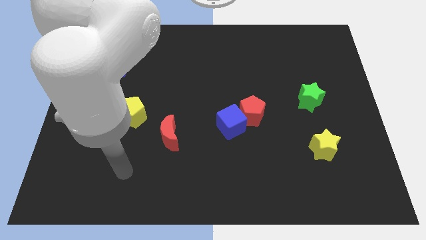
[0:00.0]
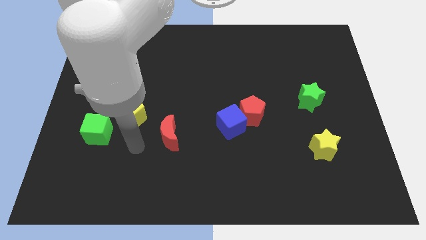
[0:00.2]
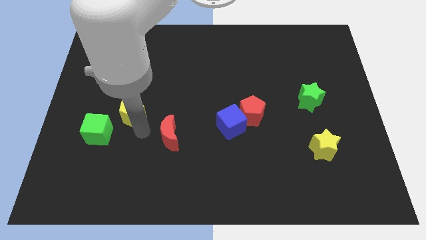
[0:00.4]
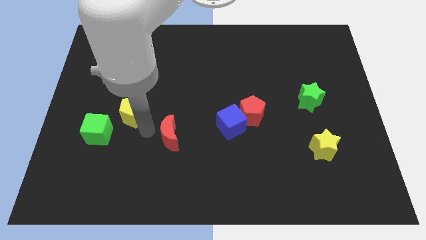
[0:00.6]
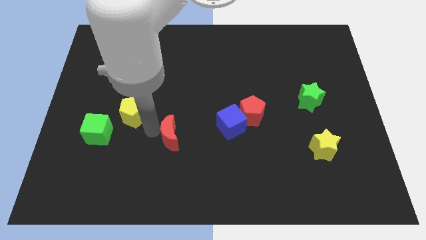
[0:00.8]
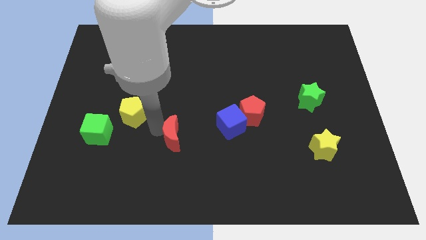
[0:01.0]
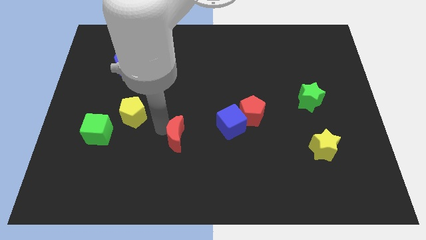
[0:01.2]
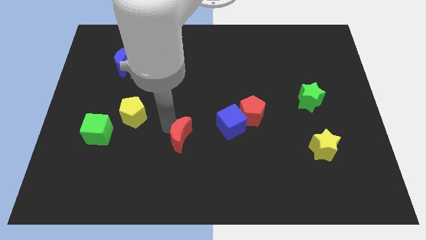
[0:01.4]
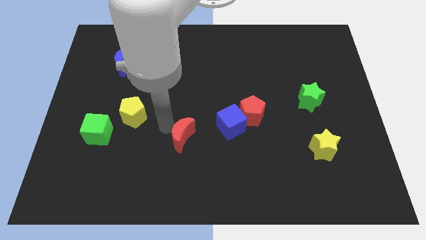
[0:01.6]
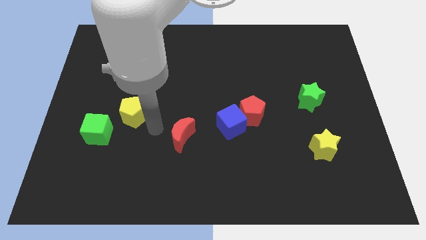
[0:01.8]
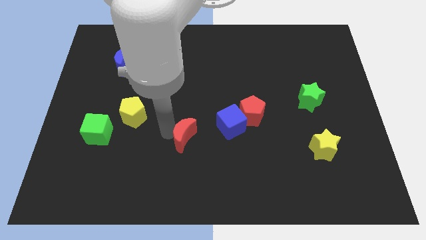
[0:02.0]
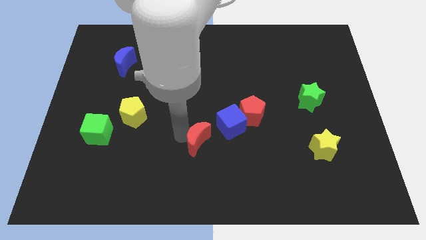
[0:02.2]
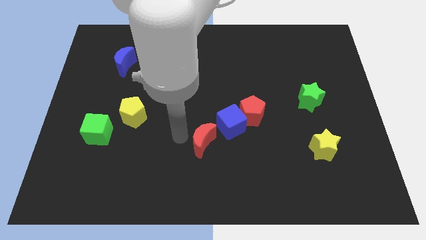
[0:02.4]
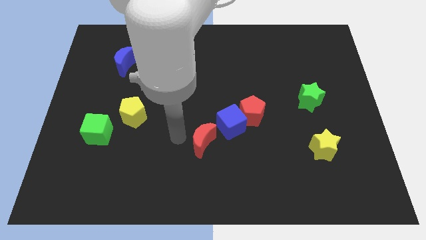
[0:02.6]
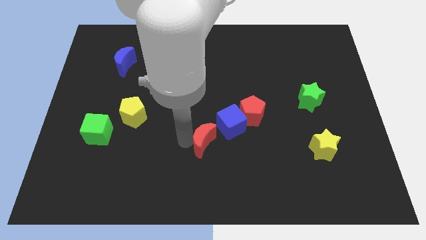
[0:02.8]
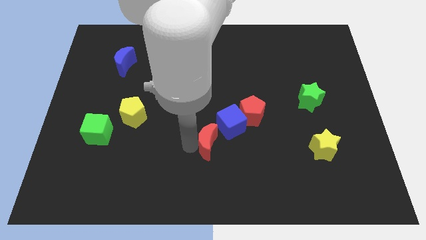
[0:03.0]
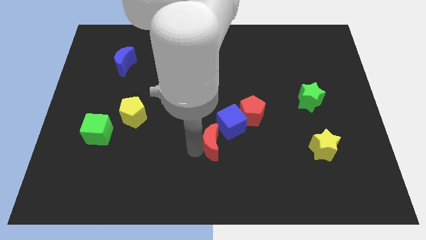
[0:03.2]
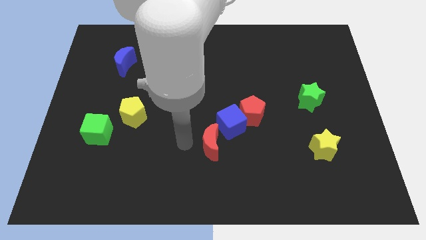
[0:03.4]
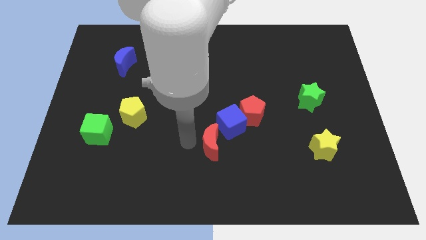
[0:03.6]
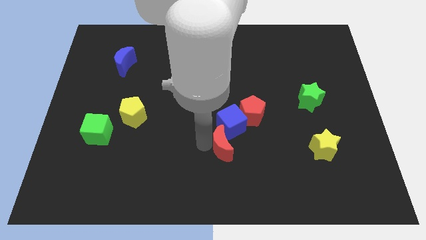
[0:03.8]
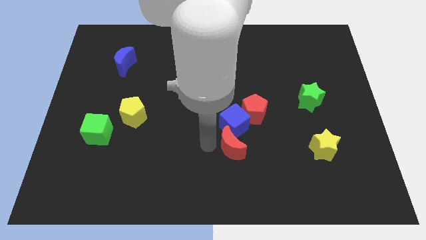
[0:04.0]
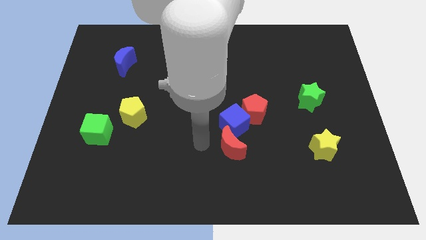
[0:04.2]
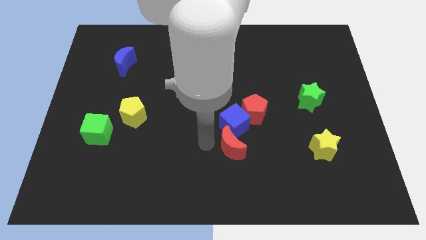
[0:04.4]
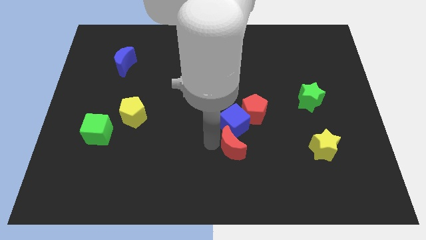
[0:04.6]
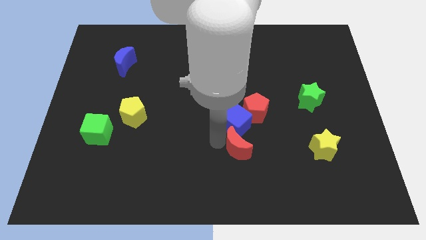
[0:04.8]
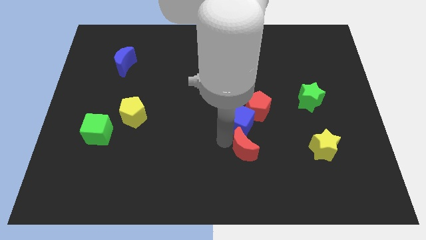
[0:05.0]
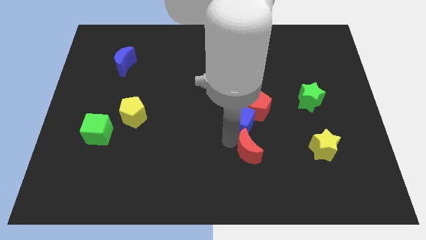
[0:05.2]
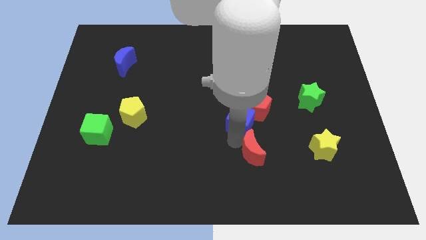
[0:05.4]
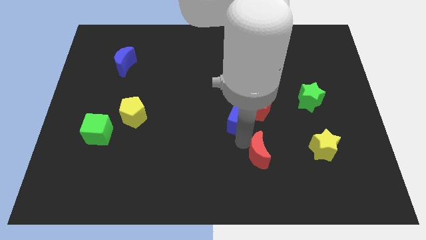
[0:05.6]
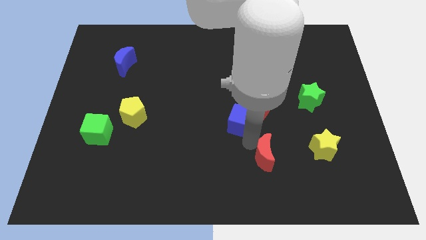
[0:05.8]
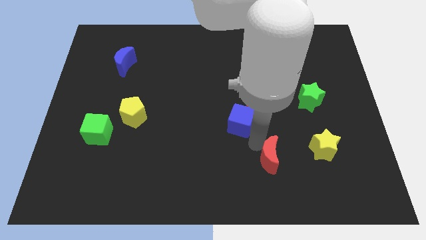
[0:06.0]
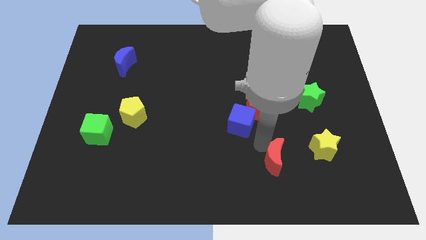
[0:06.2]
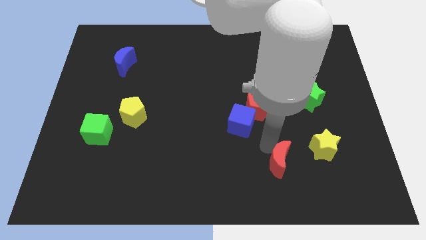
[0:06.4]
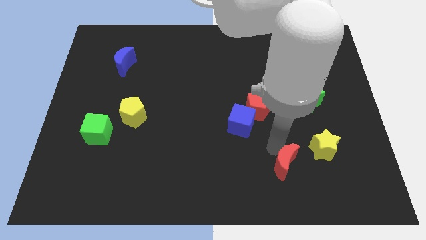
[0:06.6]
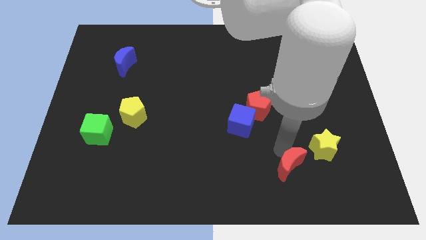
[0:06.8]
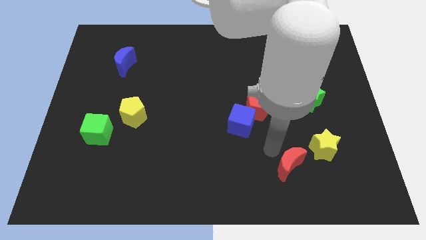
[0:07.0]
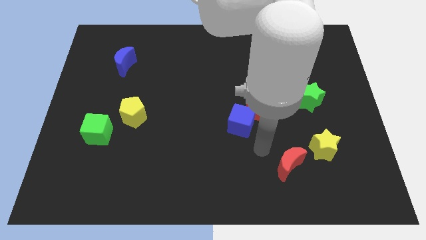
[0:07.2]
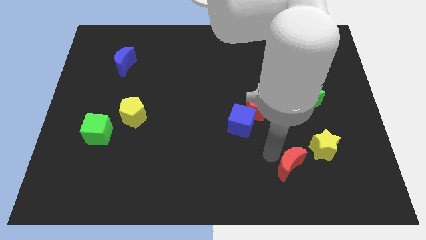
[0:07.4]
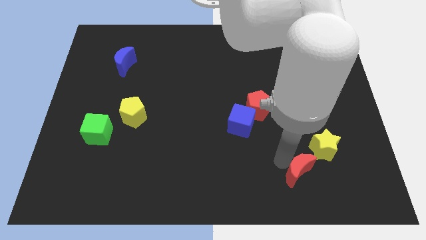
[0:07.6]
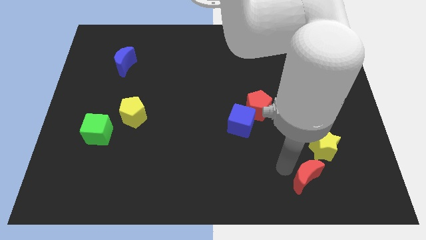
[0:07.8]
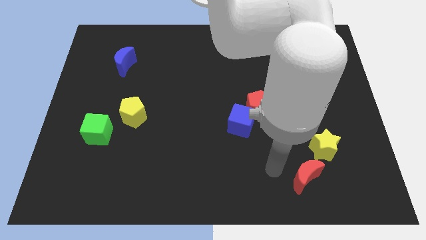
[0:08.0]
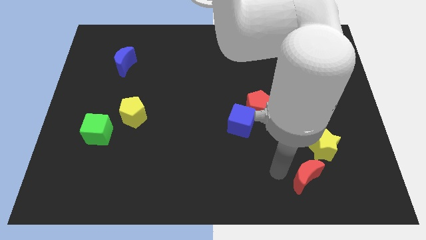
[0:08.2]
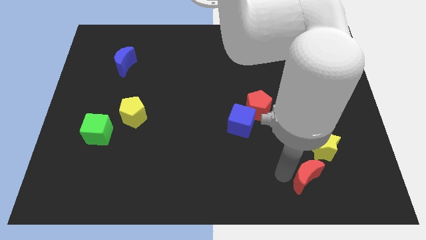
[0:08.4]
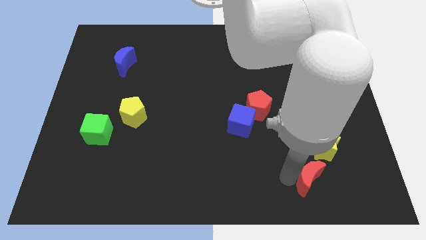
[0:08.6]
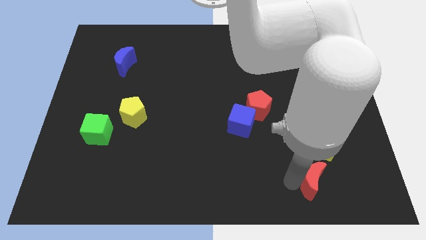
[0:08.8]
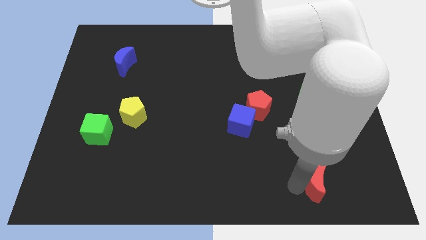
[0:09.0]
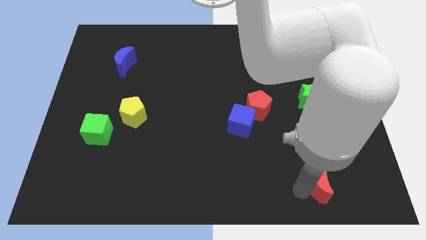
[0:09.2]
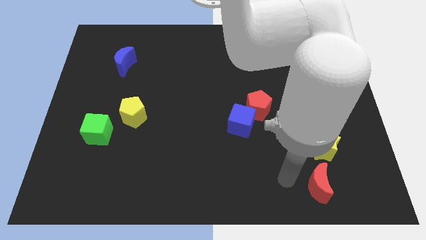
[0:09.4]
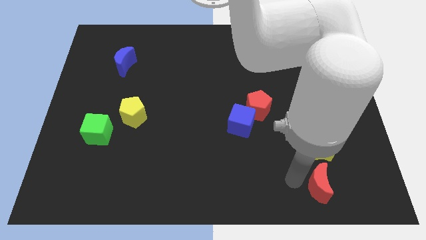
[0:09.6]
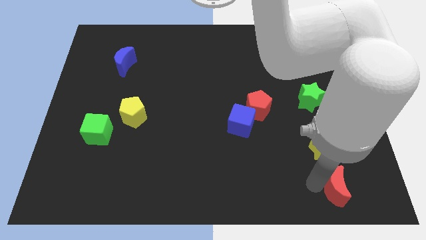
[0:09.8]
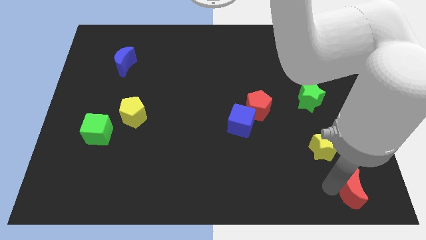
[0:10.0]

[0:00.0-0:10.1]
put the red moon to the bottom right corner

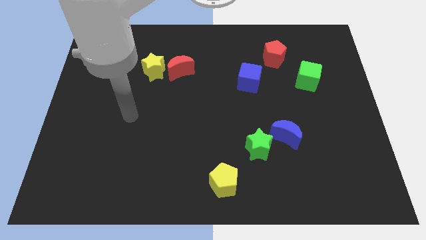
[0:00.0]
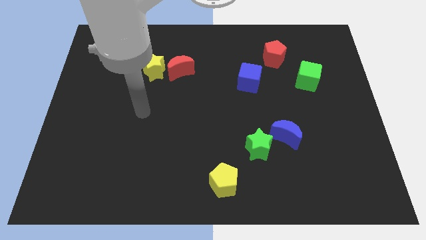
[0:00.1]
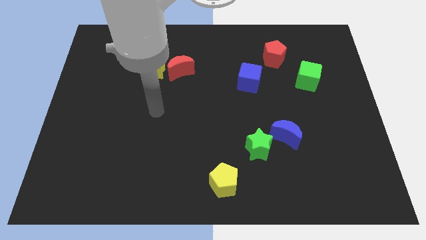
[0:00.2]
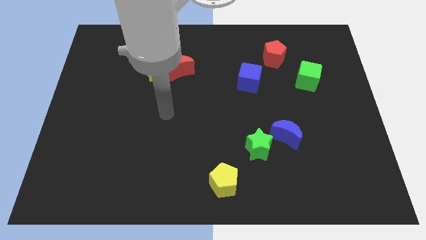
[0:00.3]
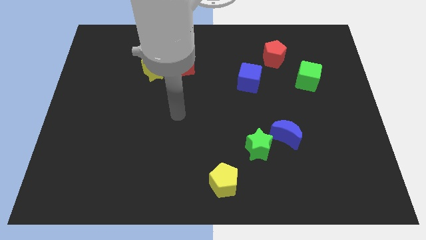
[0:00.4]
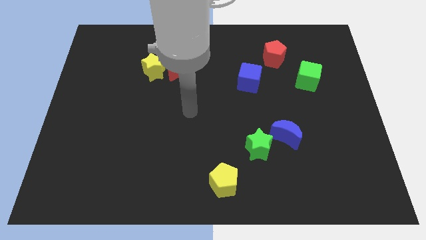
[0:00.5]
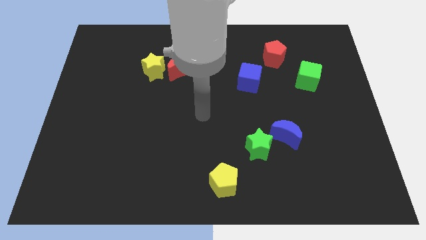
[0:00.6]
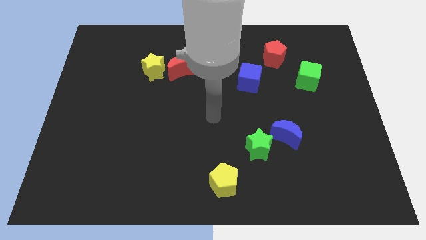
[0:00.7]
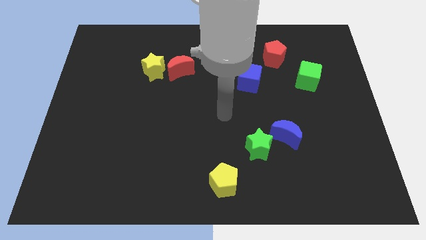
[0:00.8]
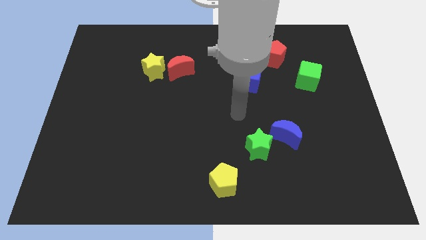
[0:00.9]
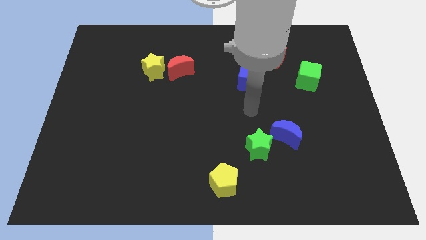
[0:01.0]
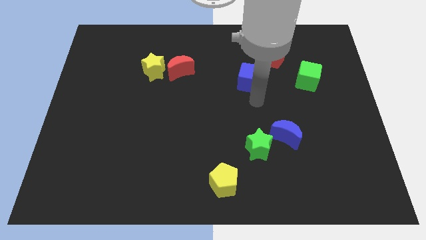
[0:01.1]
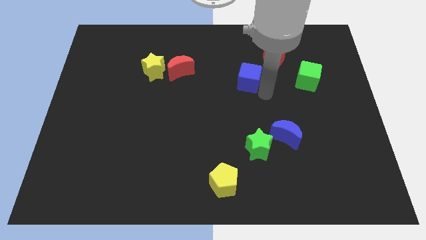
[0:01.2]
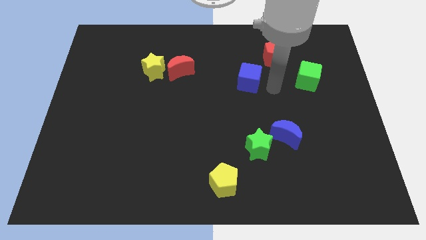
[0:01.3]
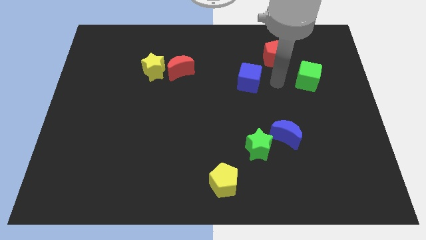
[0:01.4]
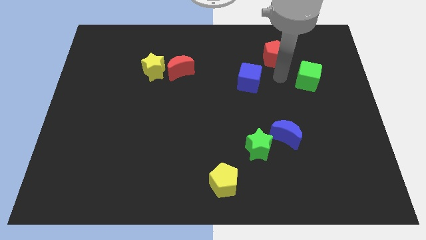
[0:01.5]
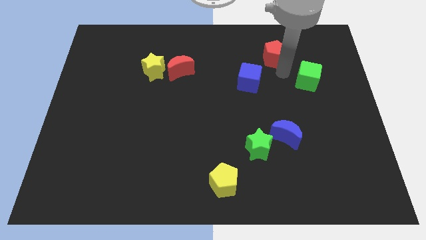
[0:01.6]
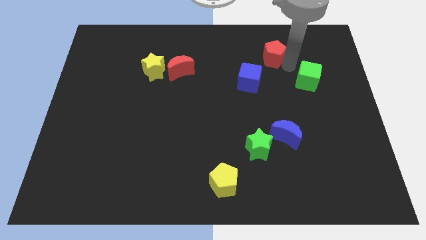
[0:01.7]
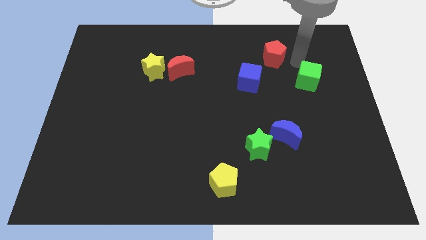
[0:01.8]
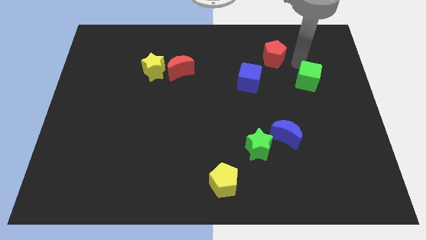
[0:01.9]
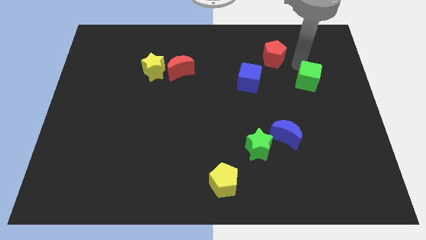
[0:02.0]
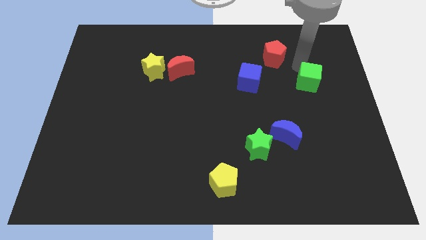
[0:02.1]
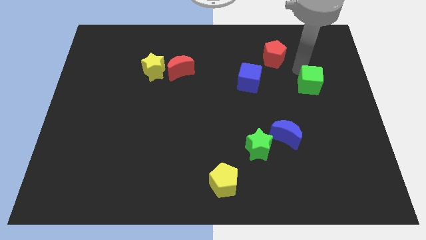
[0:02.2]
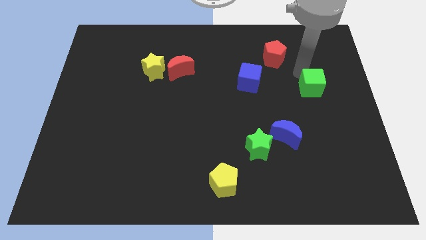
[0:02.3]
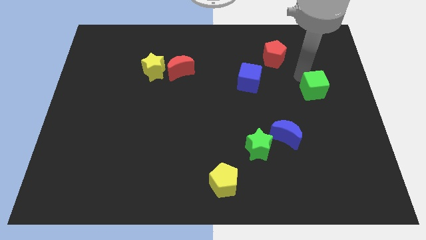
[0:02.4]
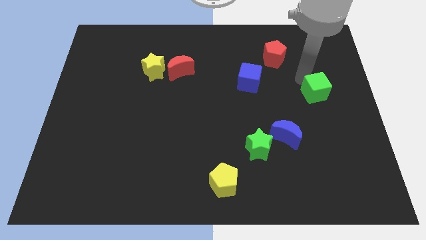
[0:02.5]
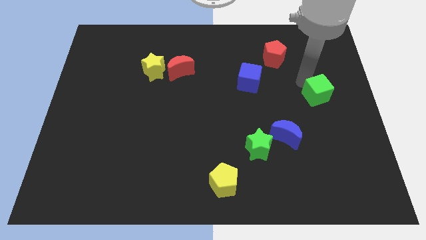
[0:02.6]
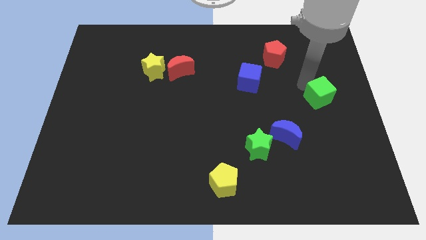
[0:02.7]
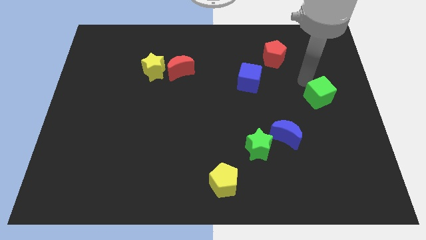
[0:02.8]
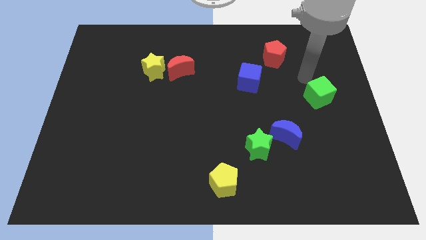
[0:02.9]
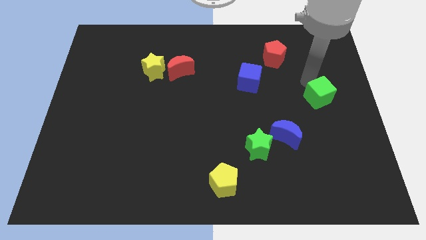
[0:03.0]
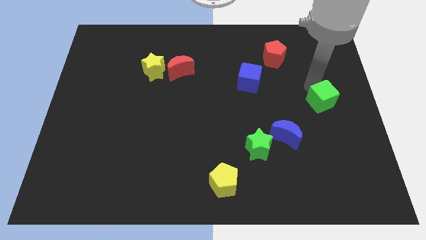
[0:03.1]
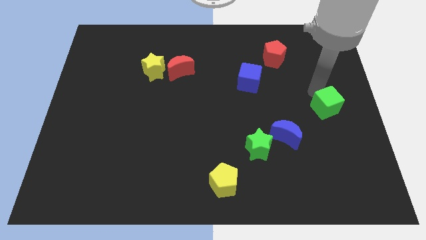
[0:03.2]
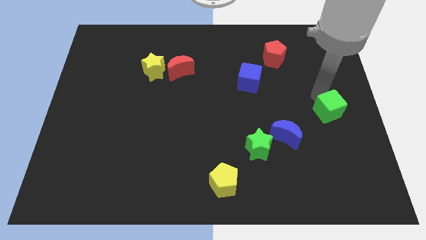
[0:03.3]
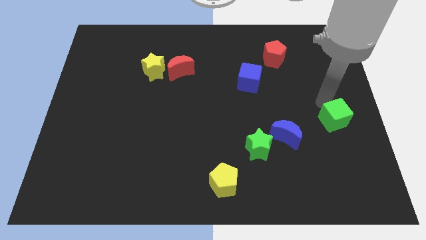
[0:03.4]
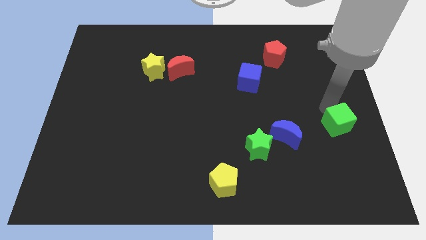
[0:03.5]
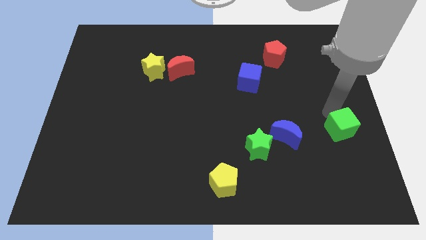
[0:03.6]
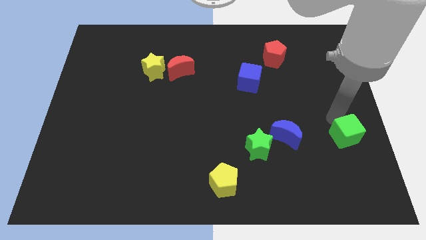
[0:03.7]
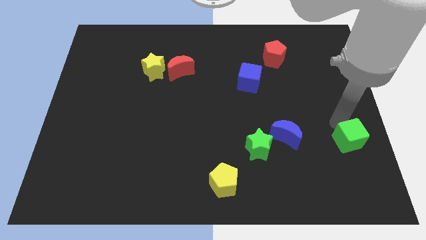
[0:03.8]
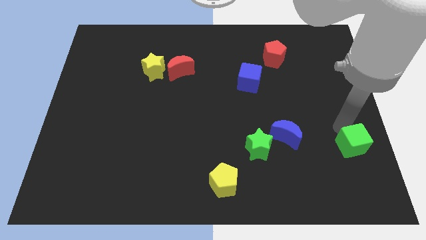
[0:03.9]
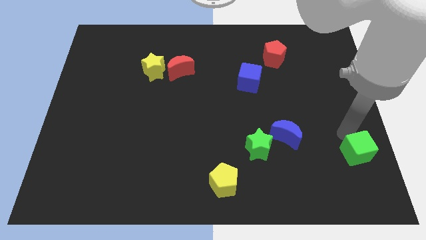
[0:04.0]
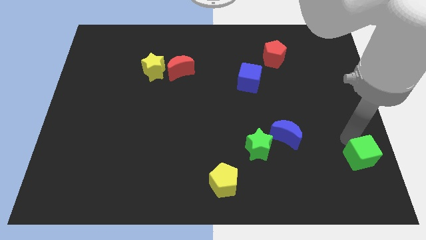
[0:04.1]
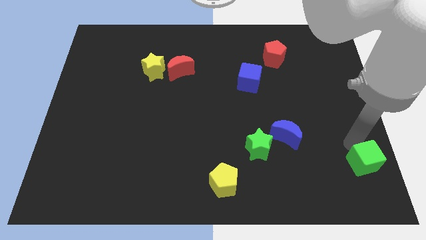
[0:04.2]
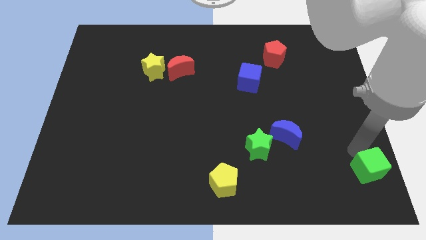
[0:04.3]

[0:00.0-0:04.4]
move the green cube to the lower right corner
